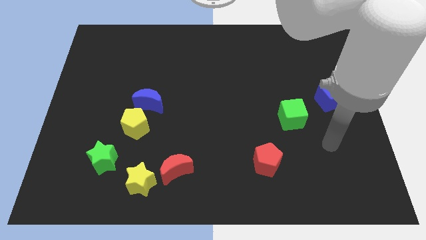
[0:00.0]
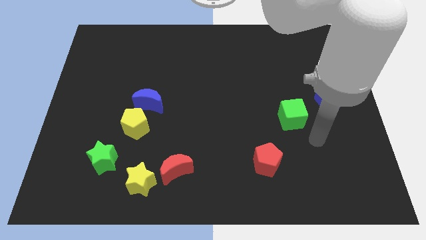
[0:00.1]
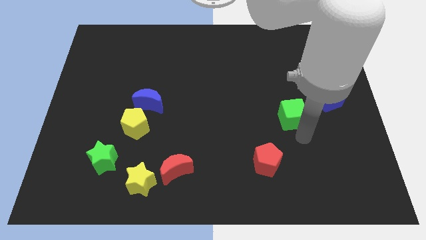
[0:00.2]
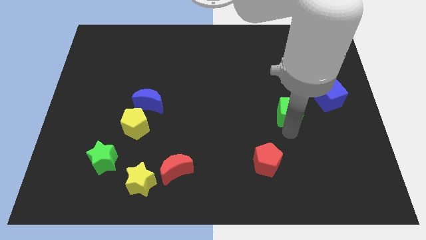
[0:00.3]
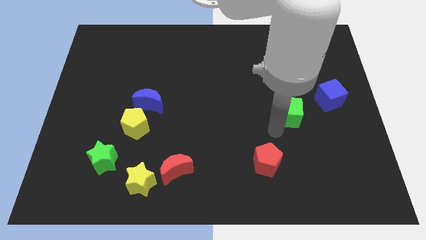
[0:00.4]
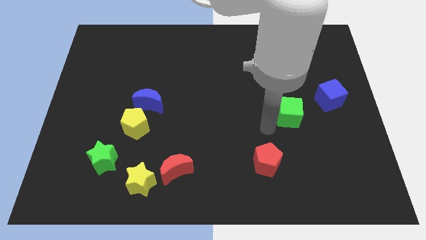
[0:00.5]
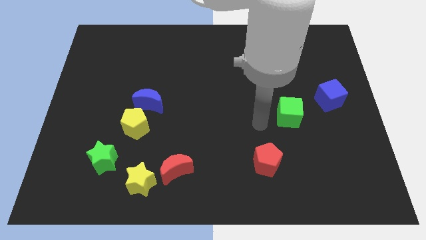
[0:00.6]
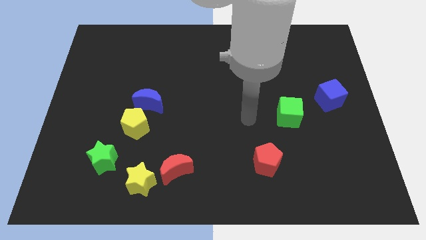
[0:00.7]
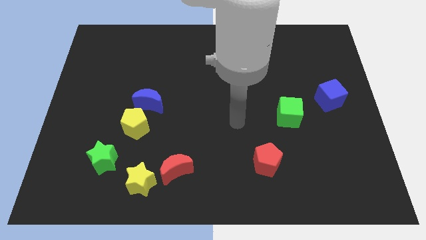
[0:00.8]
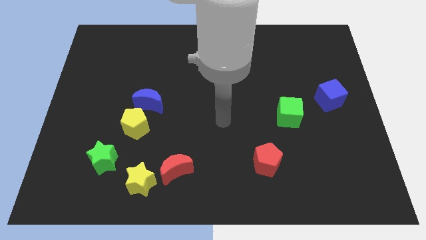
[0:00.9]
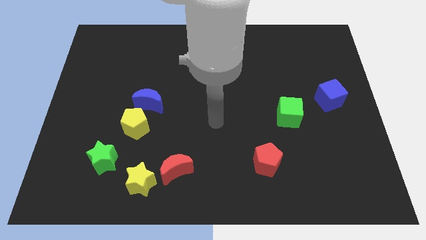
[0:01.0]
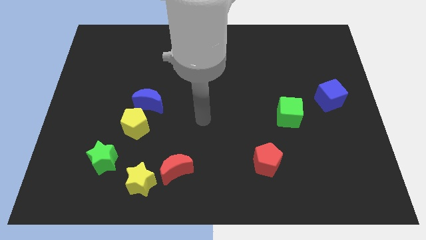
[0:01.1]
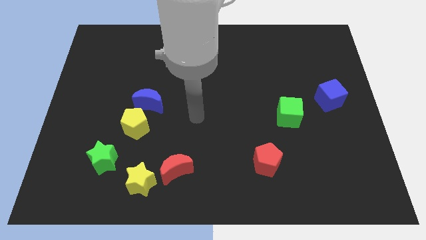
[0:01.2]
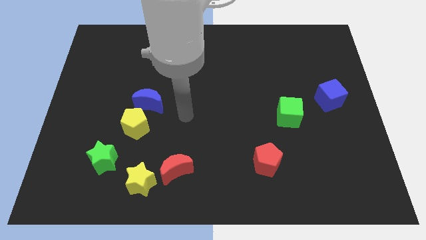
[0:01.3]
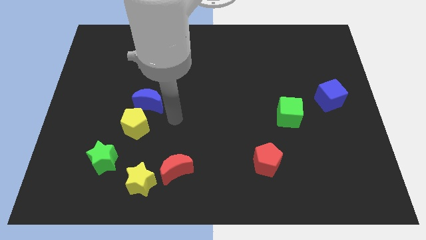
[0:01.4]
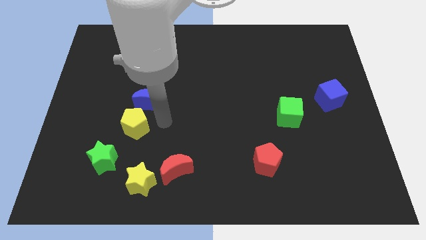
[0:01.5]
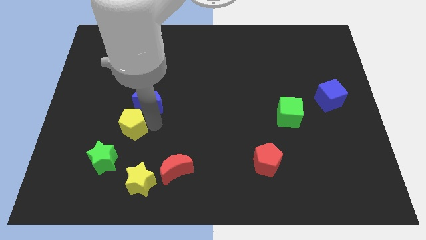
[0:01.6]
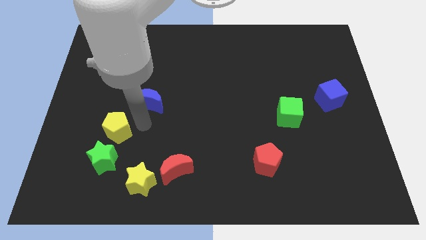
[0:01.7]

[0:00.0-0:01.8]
separate the blue moon from the yellow pentagon

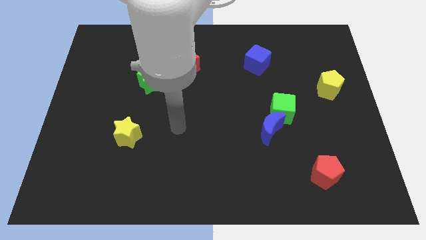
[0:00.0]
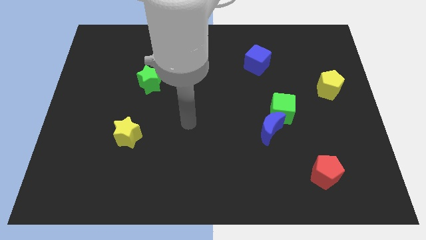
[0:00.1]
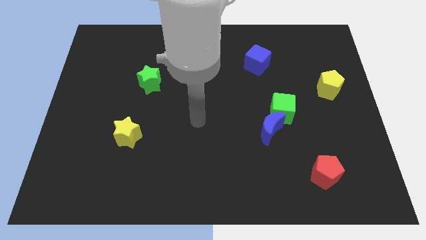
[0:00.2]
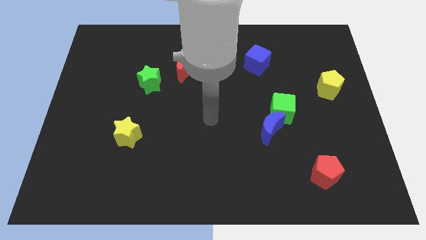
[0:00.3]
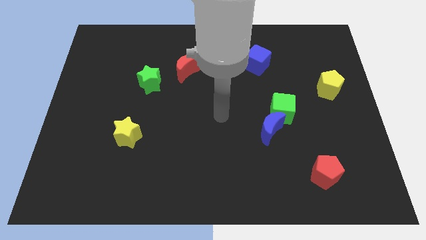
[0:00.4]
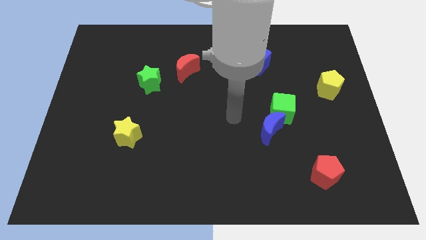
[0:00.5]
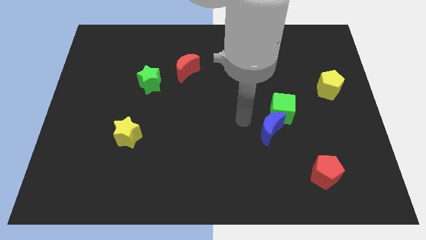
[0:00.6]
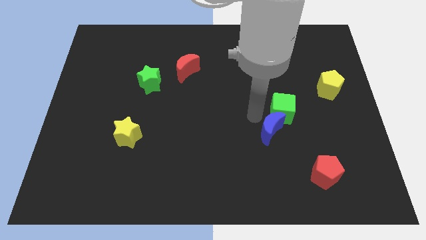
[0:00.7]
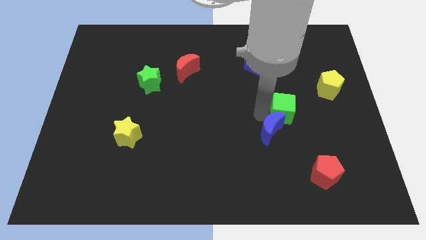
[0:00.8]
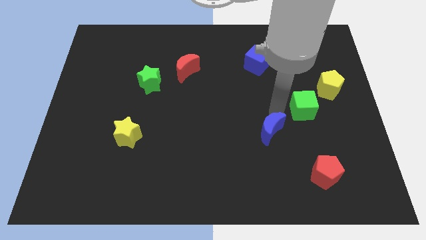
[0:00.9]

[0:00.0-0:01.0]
pull the blue moon apart from the green cube

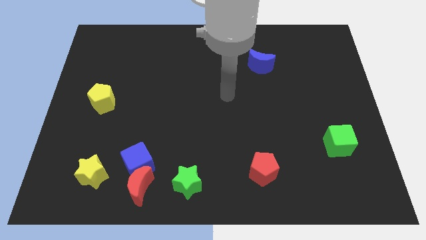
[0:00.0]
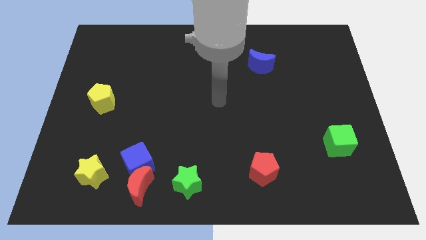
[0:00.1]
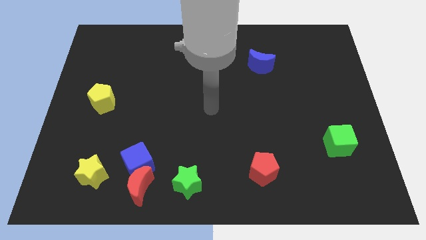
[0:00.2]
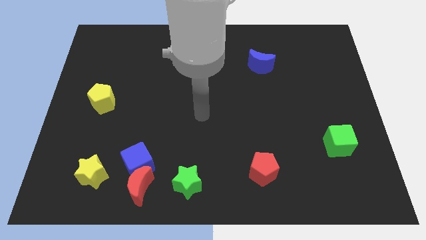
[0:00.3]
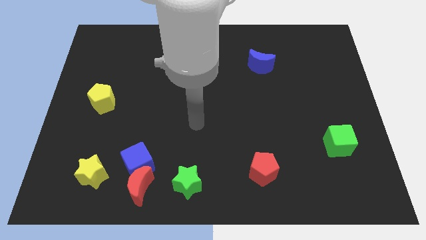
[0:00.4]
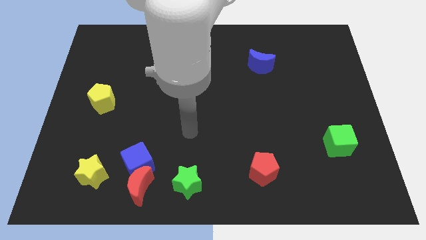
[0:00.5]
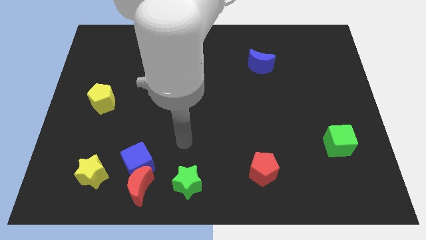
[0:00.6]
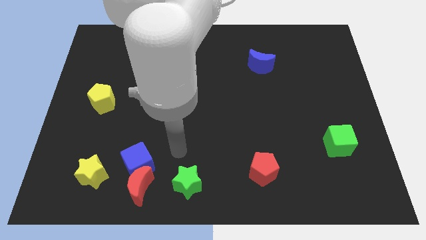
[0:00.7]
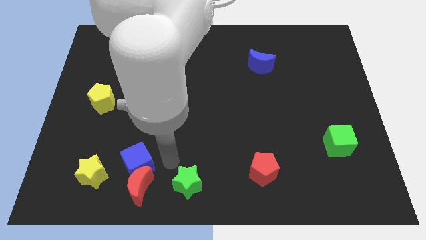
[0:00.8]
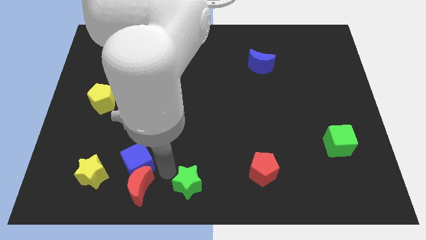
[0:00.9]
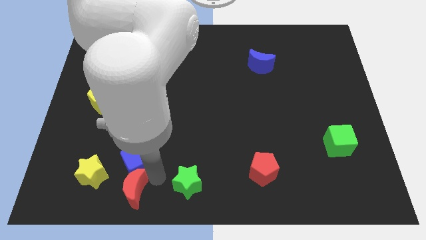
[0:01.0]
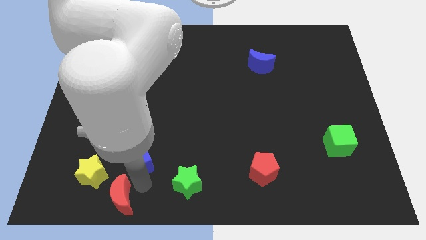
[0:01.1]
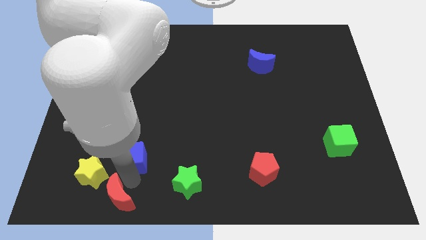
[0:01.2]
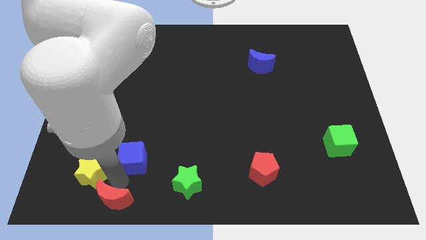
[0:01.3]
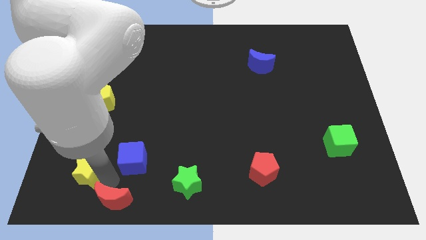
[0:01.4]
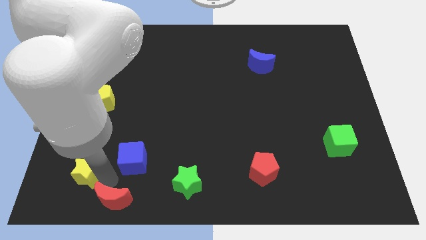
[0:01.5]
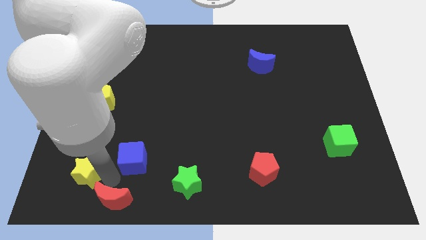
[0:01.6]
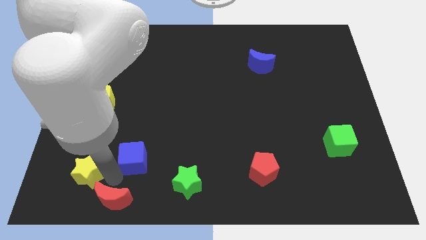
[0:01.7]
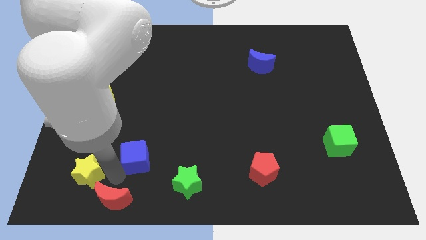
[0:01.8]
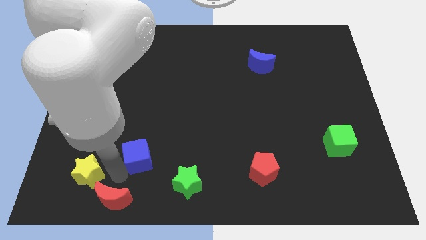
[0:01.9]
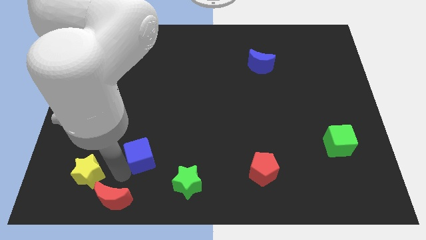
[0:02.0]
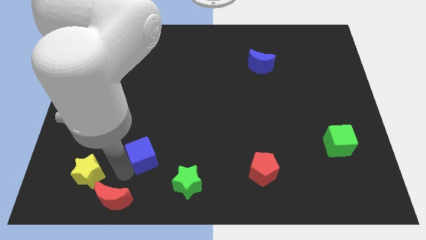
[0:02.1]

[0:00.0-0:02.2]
separate the blue cube from the red moon and yellow star

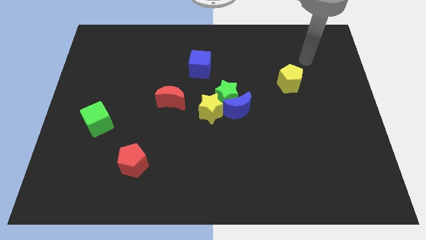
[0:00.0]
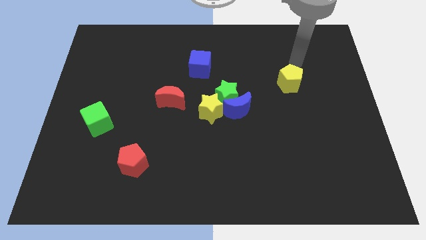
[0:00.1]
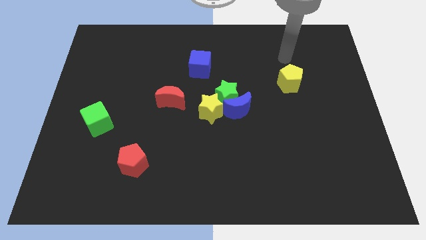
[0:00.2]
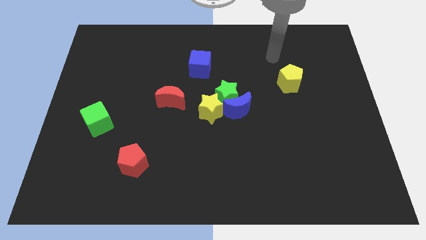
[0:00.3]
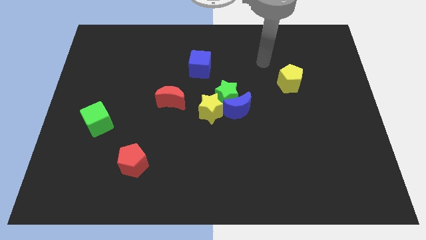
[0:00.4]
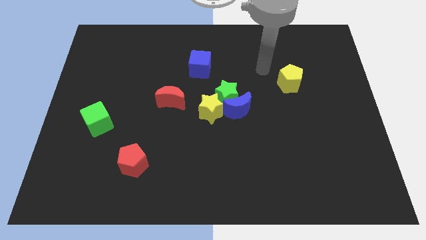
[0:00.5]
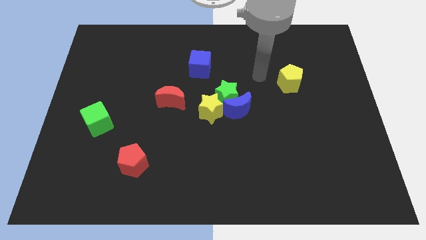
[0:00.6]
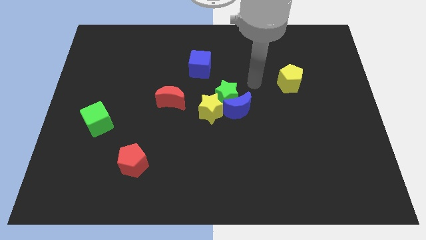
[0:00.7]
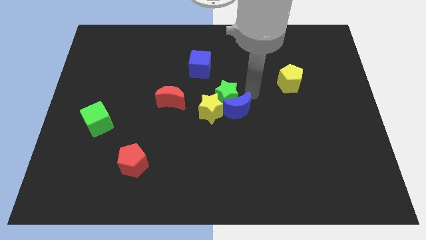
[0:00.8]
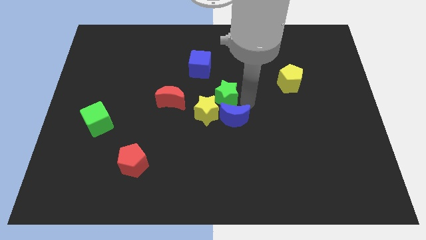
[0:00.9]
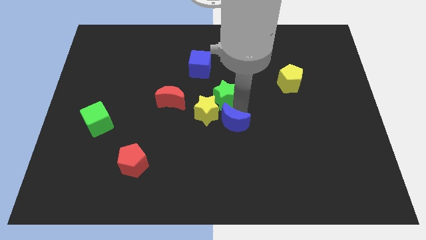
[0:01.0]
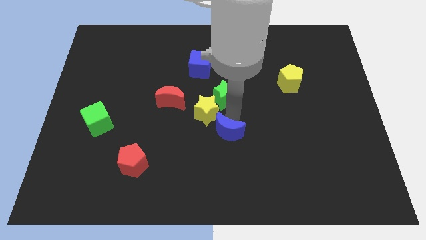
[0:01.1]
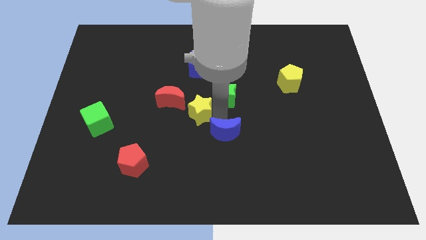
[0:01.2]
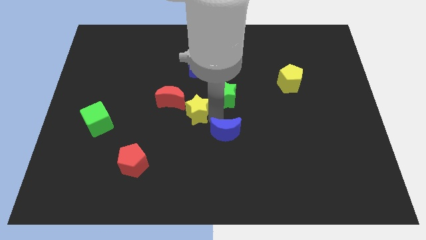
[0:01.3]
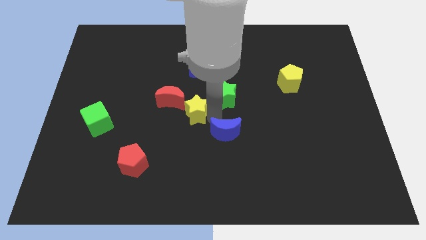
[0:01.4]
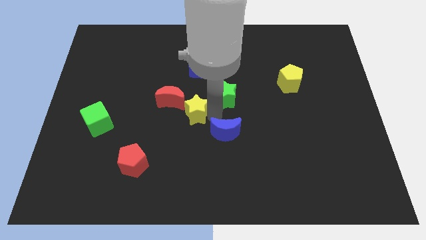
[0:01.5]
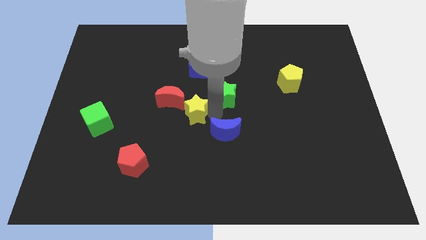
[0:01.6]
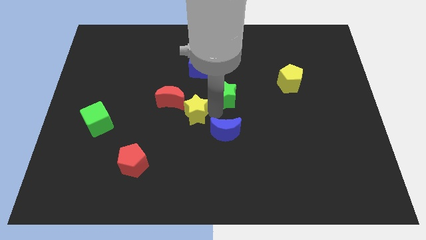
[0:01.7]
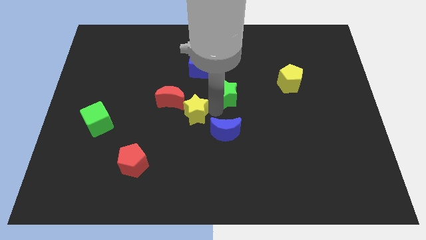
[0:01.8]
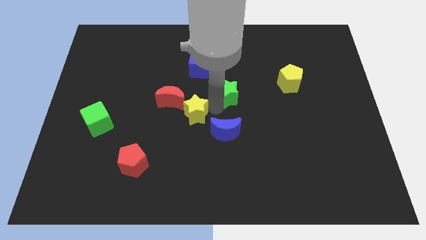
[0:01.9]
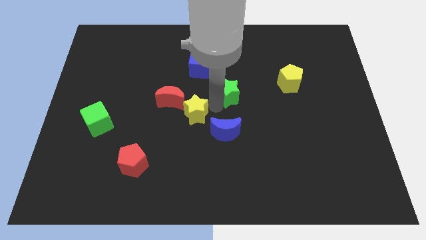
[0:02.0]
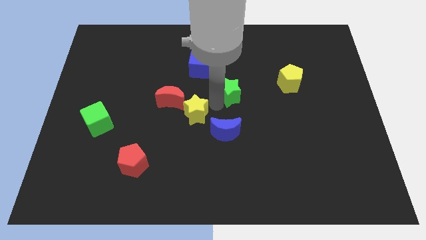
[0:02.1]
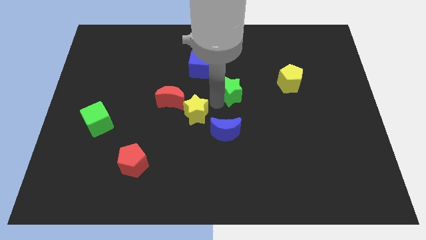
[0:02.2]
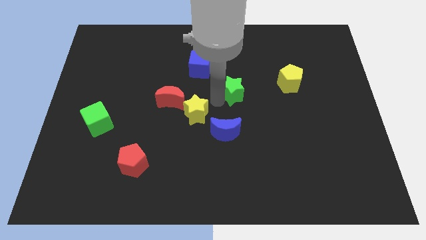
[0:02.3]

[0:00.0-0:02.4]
move the green star away from the blue moon and yellow star

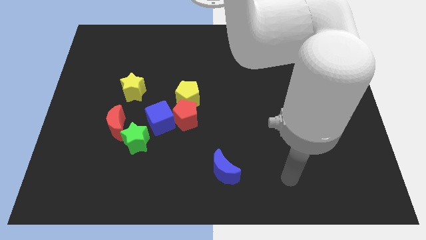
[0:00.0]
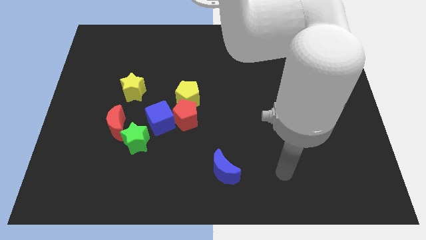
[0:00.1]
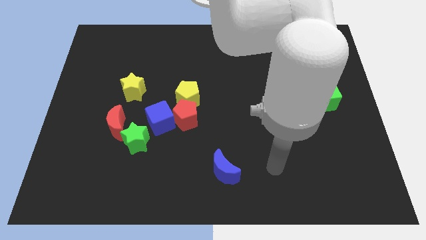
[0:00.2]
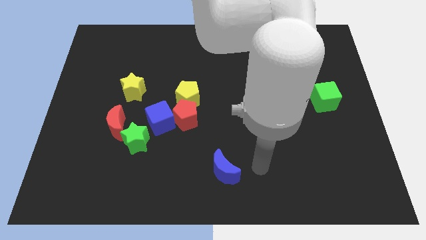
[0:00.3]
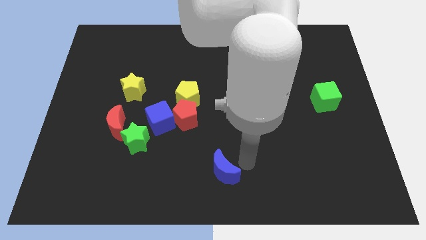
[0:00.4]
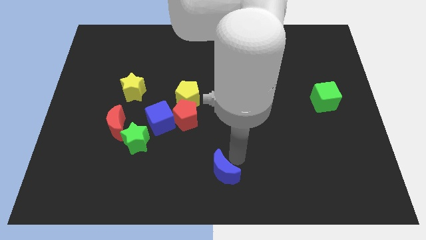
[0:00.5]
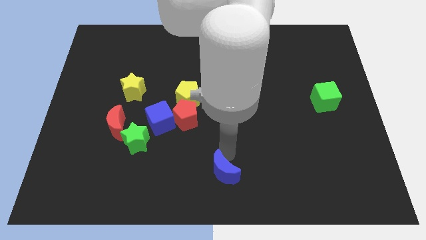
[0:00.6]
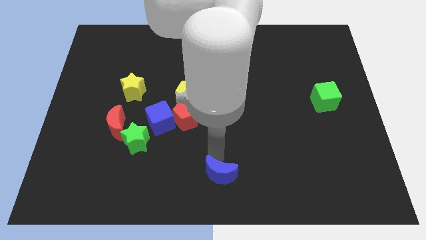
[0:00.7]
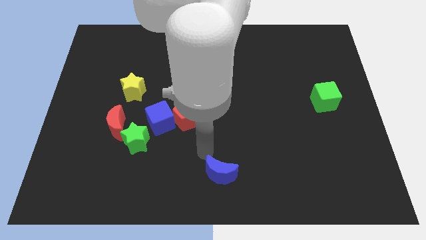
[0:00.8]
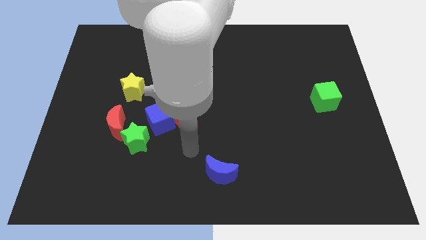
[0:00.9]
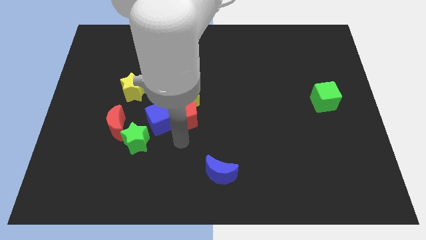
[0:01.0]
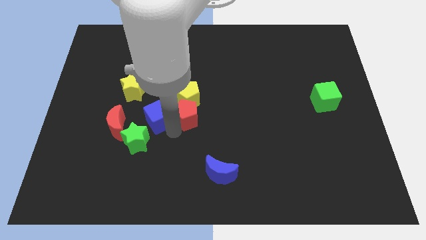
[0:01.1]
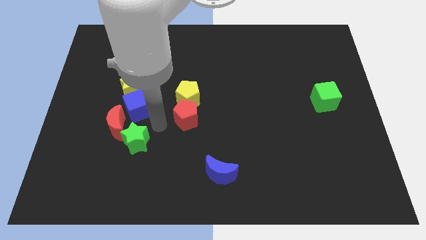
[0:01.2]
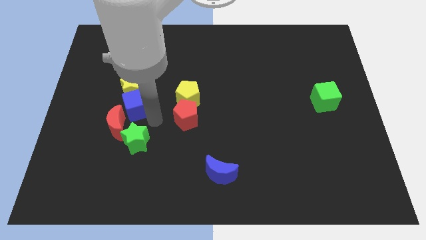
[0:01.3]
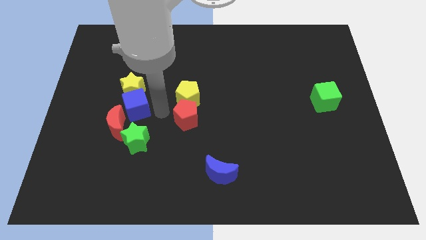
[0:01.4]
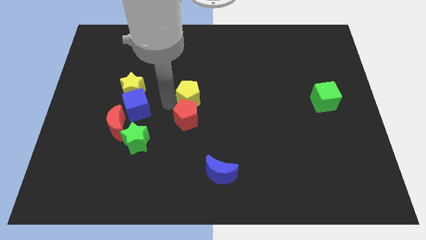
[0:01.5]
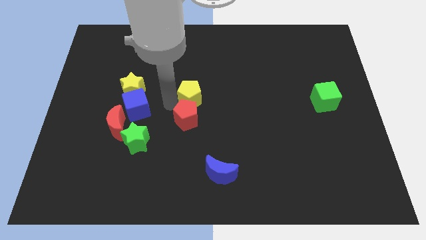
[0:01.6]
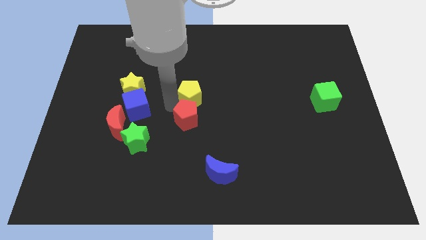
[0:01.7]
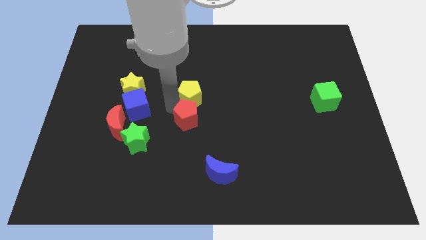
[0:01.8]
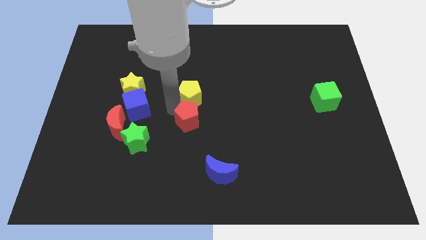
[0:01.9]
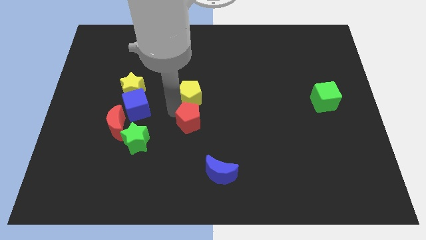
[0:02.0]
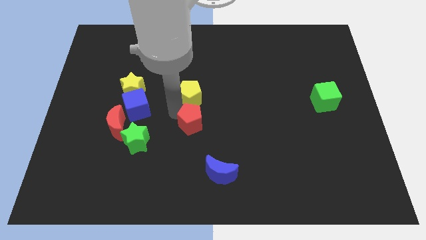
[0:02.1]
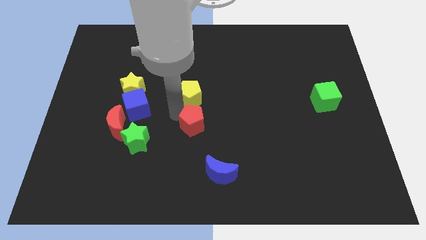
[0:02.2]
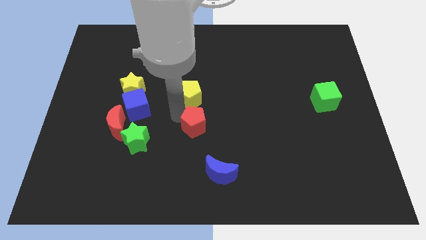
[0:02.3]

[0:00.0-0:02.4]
separate the red pentagon from the yellow pentagon and blue cube
